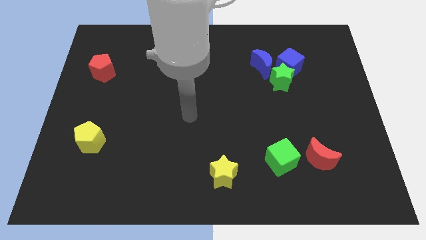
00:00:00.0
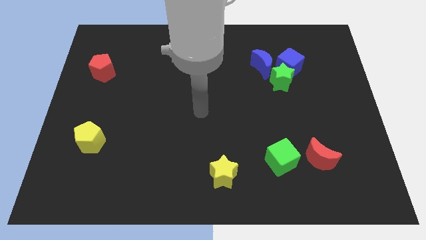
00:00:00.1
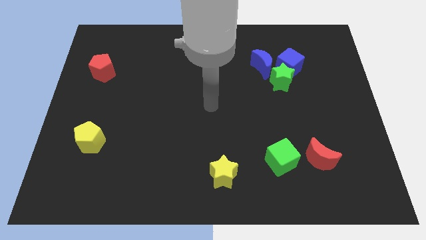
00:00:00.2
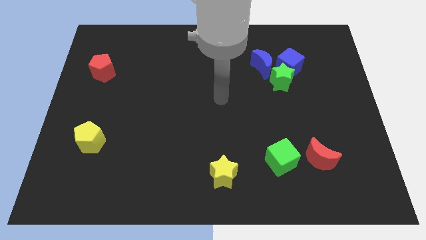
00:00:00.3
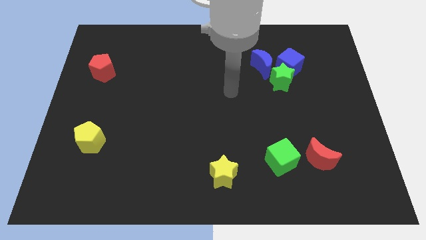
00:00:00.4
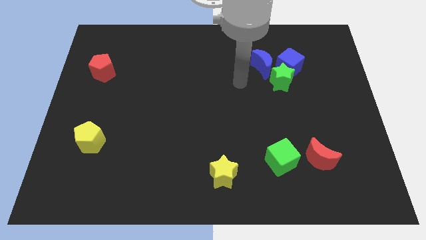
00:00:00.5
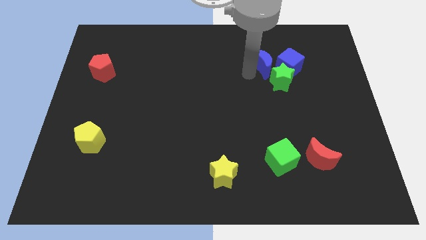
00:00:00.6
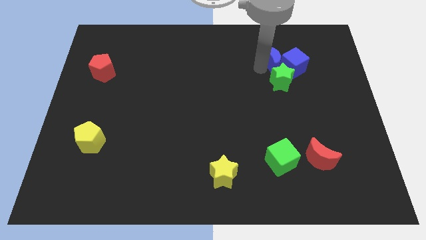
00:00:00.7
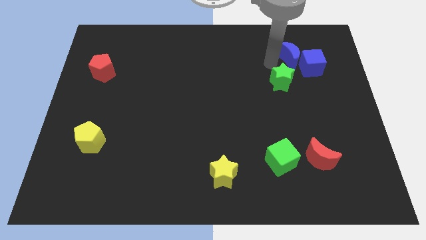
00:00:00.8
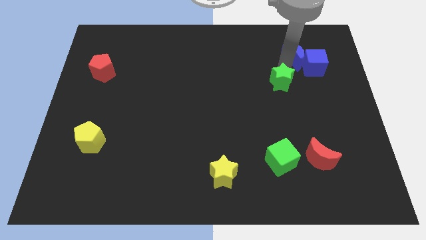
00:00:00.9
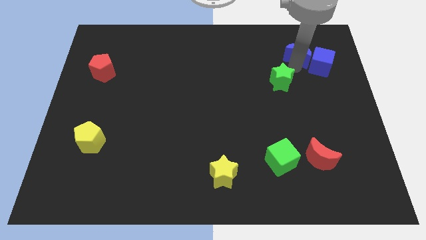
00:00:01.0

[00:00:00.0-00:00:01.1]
pull the green star apart from the blue cube and blue moon

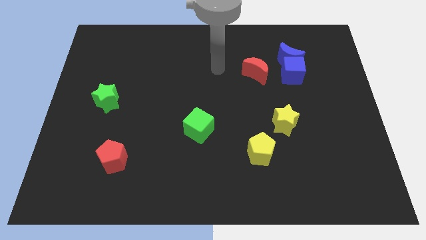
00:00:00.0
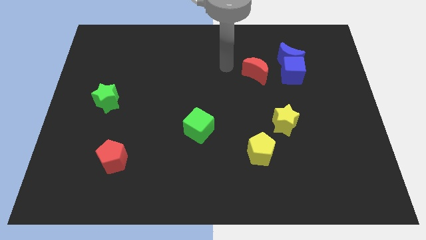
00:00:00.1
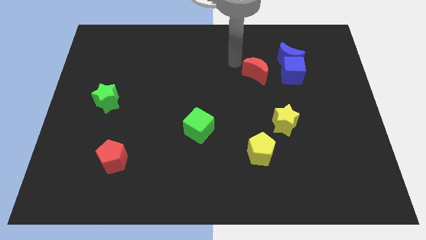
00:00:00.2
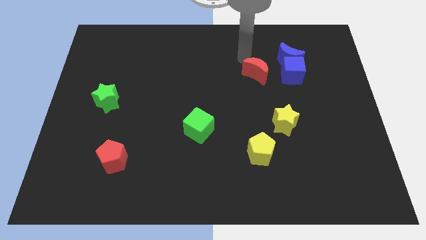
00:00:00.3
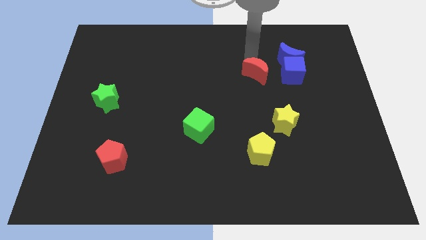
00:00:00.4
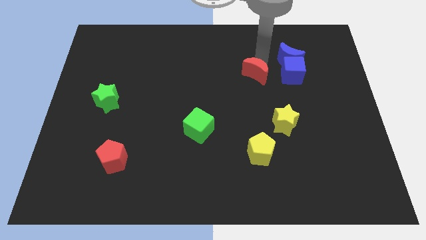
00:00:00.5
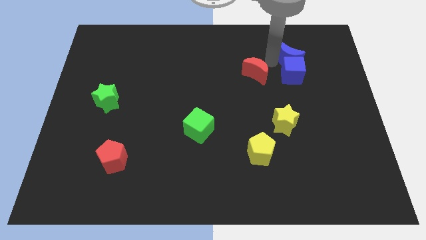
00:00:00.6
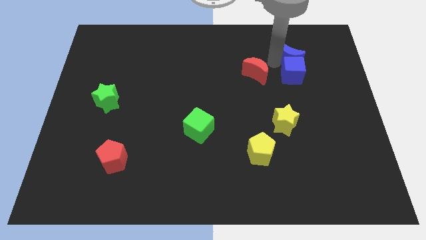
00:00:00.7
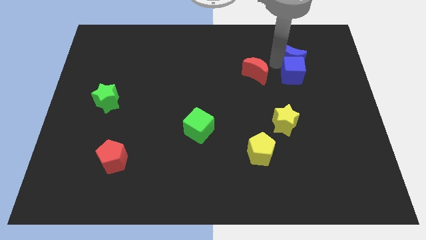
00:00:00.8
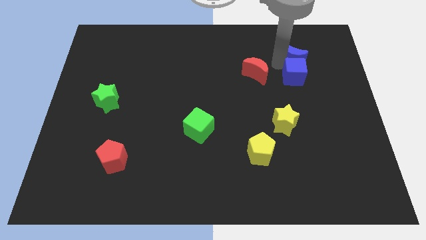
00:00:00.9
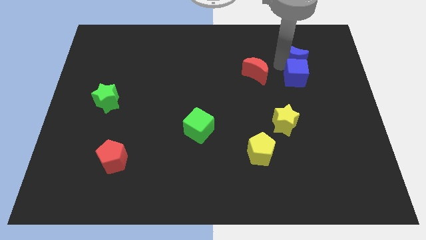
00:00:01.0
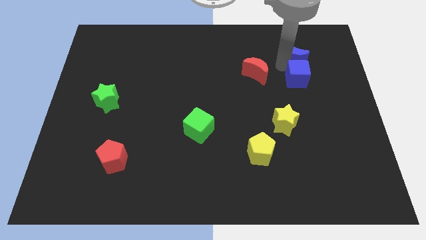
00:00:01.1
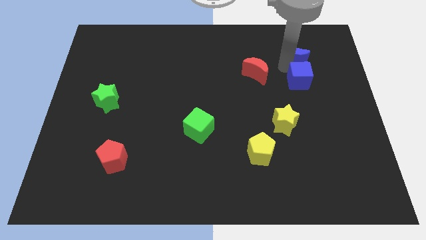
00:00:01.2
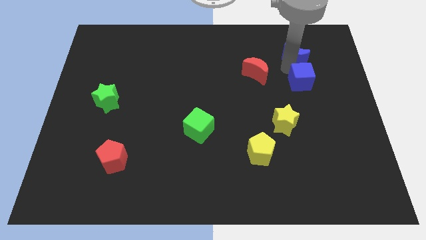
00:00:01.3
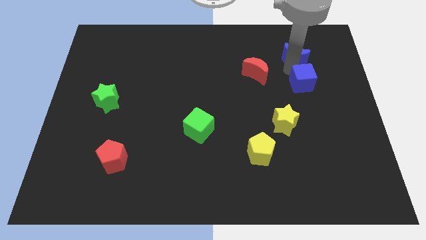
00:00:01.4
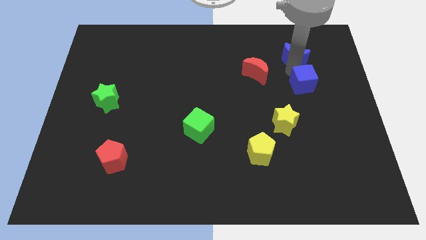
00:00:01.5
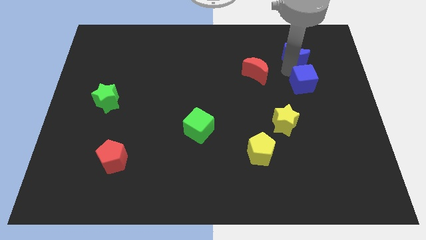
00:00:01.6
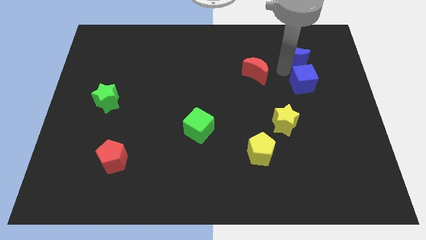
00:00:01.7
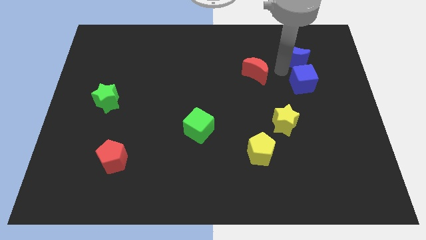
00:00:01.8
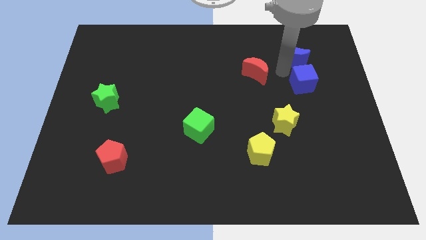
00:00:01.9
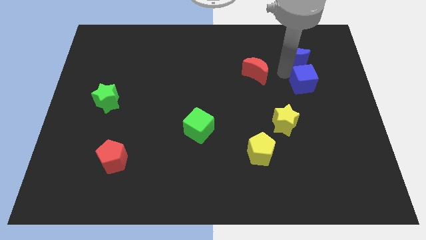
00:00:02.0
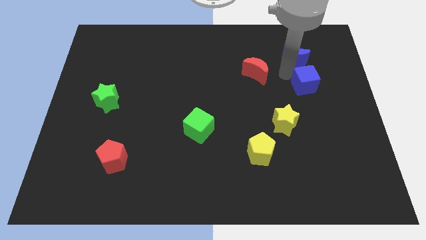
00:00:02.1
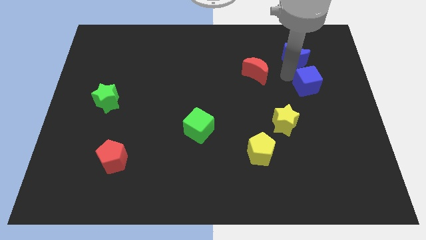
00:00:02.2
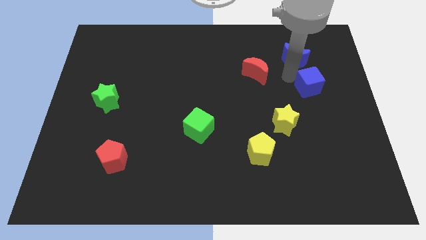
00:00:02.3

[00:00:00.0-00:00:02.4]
pull the blue cube apart from the blue moon and red moon

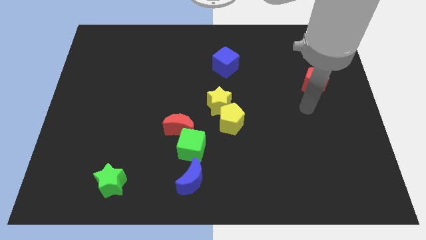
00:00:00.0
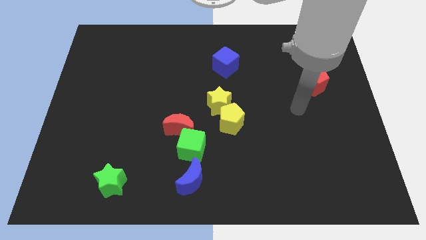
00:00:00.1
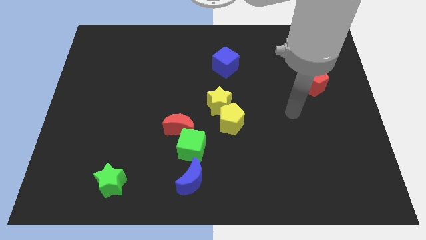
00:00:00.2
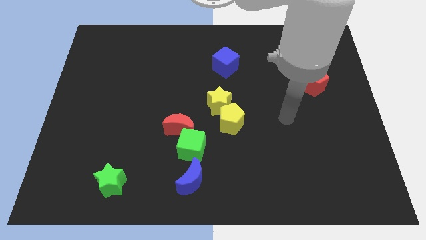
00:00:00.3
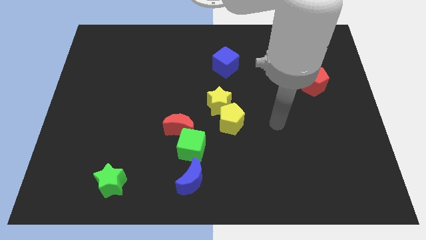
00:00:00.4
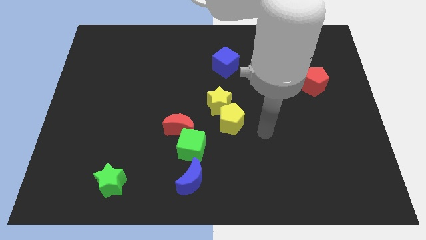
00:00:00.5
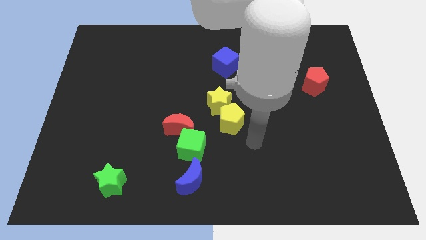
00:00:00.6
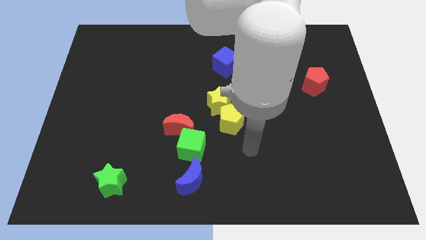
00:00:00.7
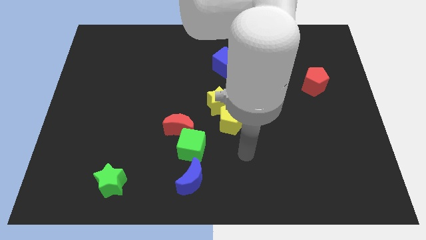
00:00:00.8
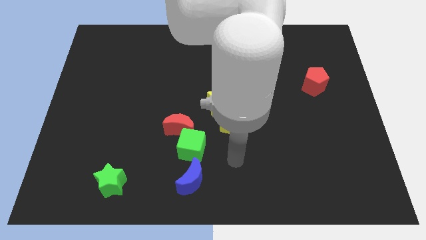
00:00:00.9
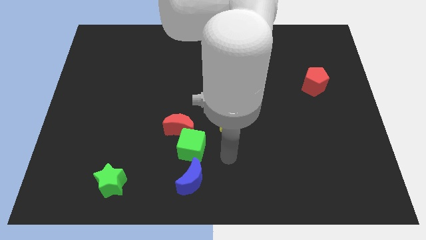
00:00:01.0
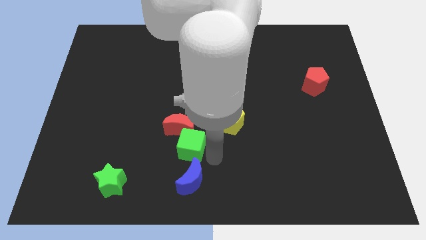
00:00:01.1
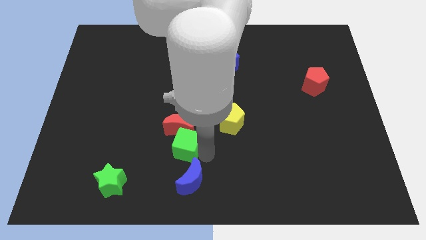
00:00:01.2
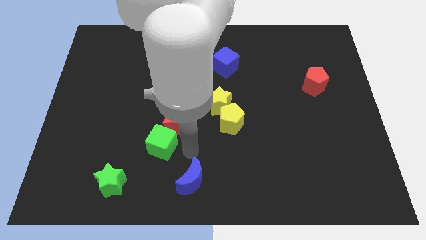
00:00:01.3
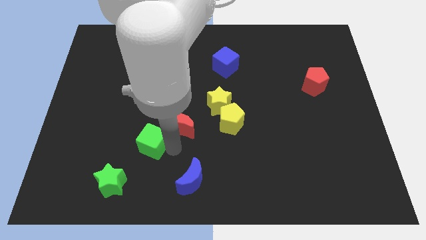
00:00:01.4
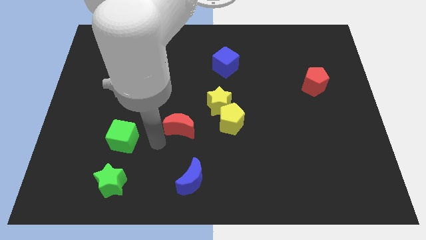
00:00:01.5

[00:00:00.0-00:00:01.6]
separate the red moon from the green cube

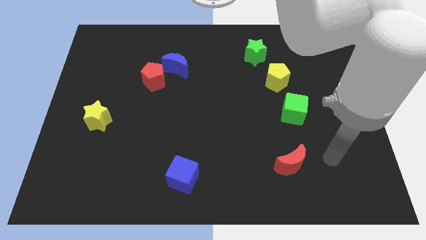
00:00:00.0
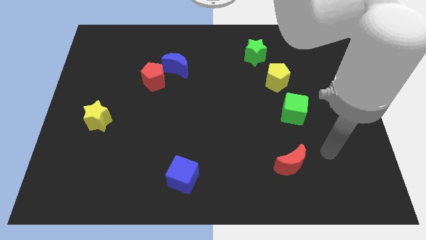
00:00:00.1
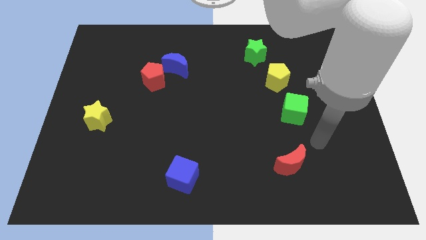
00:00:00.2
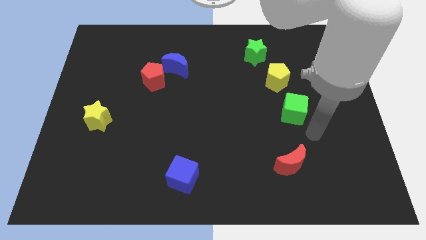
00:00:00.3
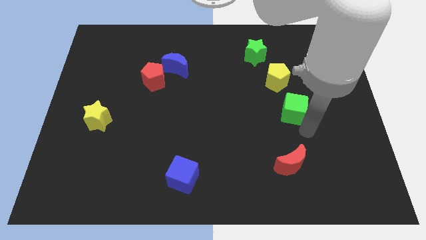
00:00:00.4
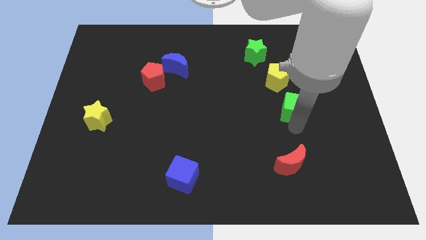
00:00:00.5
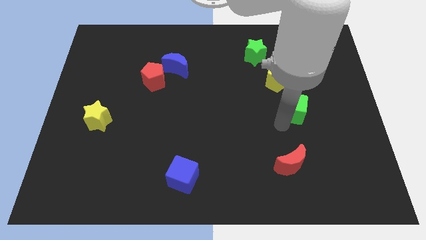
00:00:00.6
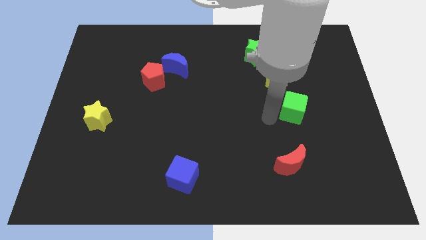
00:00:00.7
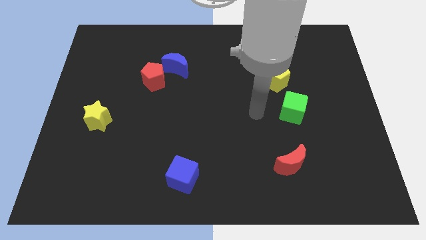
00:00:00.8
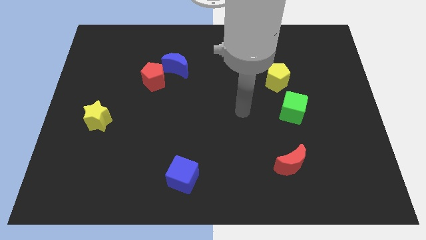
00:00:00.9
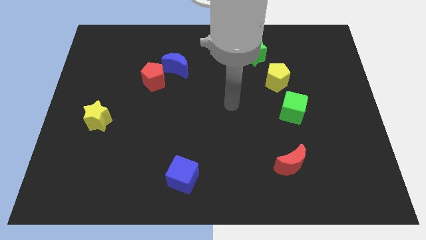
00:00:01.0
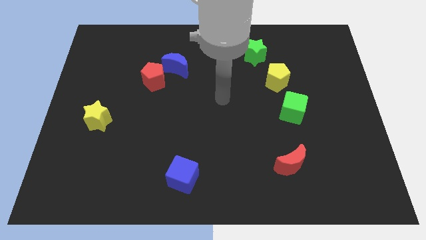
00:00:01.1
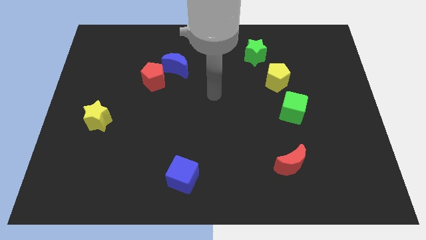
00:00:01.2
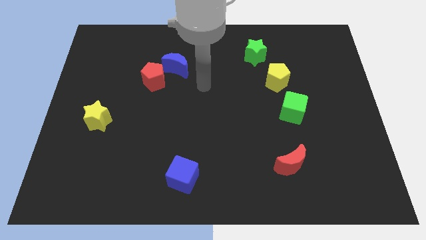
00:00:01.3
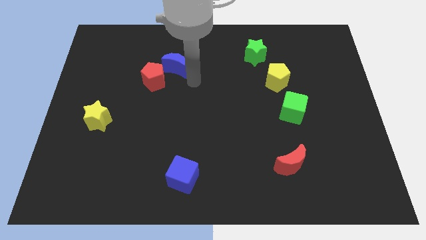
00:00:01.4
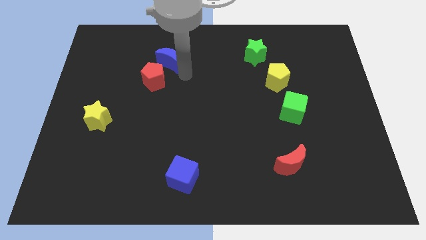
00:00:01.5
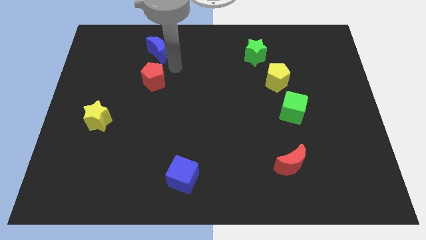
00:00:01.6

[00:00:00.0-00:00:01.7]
move the red pentagon away from the blue moon

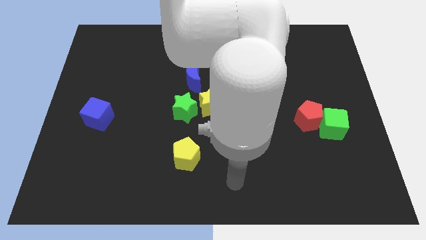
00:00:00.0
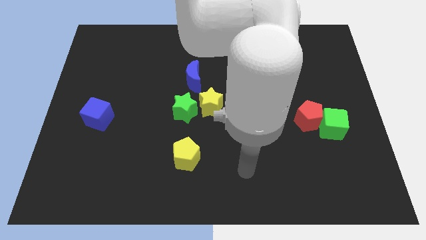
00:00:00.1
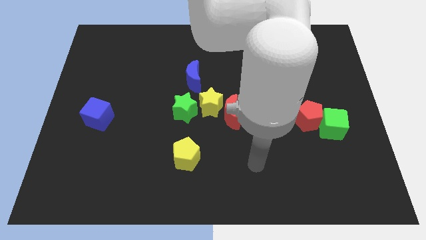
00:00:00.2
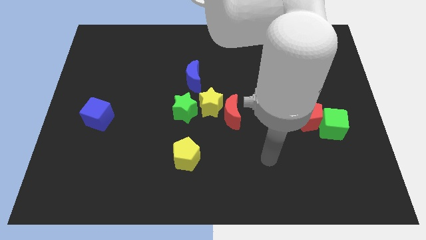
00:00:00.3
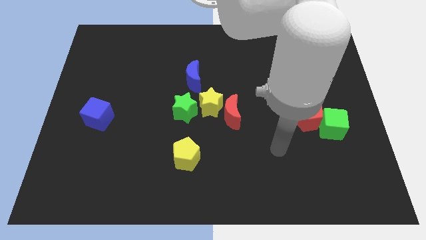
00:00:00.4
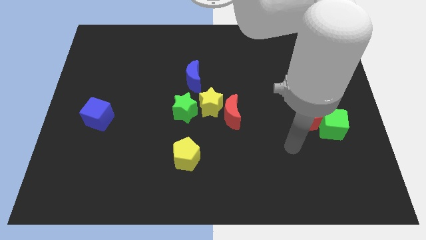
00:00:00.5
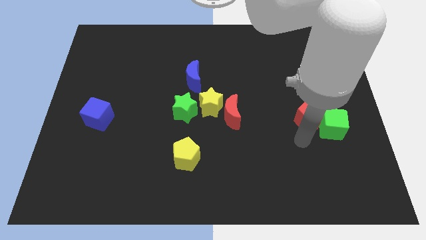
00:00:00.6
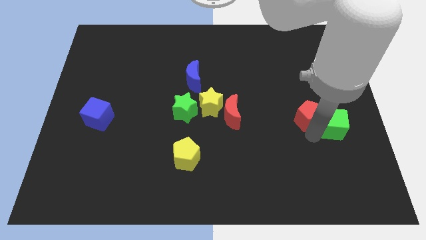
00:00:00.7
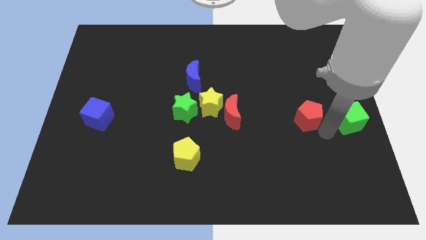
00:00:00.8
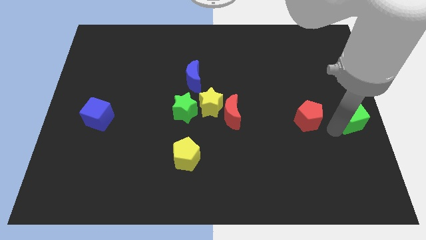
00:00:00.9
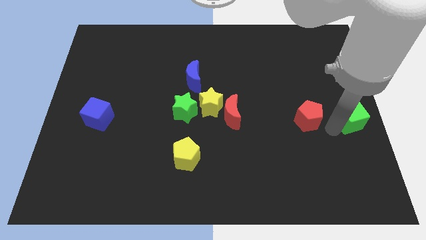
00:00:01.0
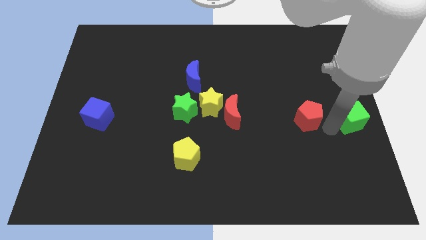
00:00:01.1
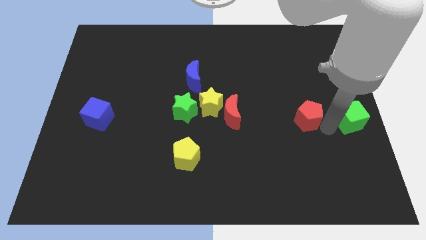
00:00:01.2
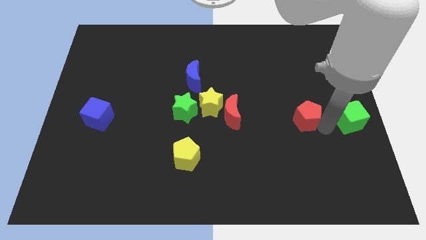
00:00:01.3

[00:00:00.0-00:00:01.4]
separate the red pentagon from the green cube

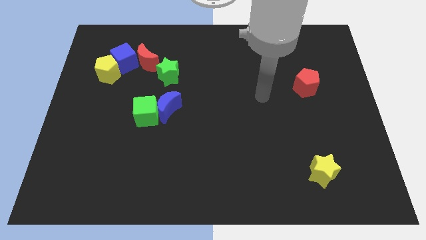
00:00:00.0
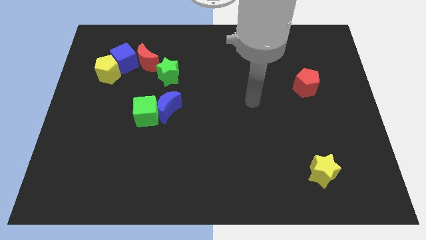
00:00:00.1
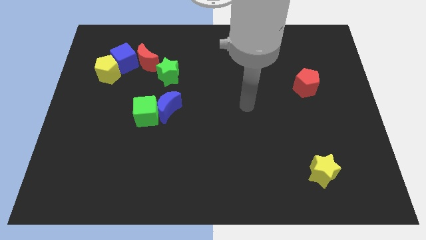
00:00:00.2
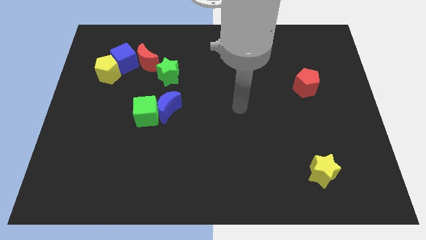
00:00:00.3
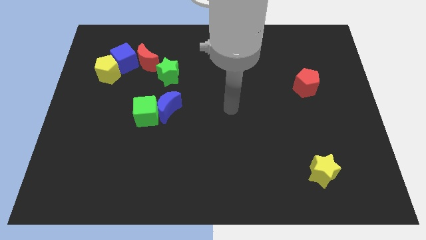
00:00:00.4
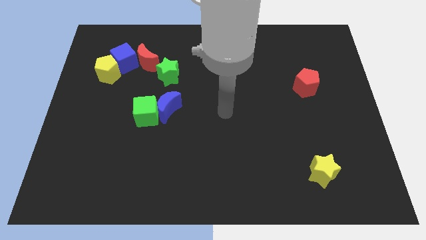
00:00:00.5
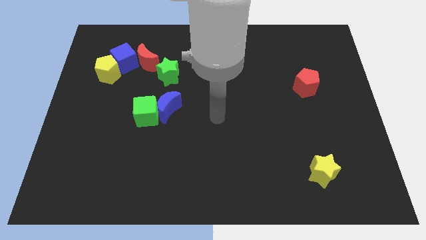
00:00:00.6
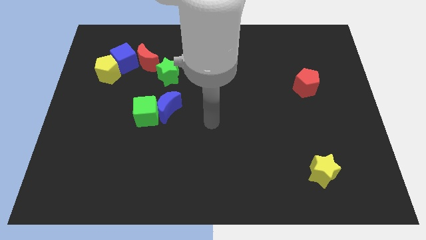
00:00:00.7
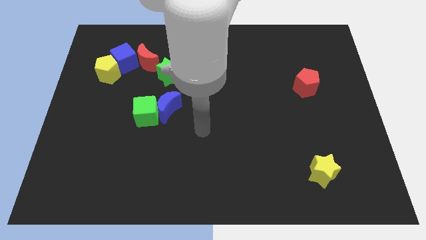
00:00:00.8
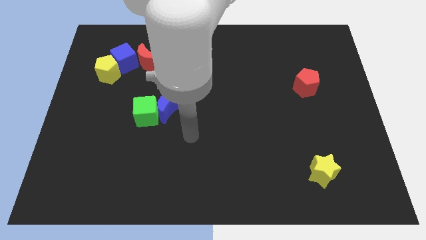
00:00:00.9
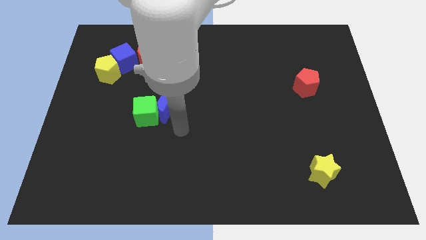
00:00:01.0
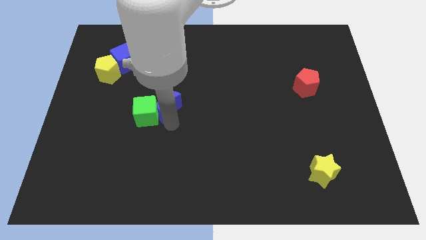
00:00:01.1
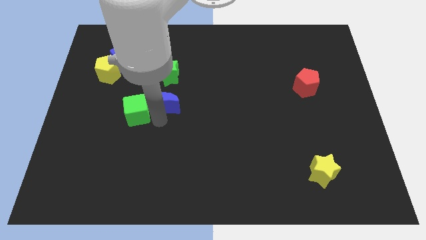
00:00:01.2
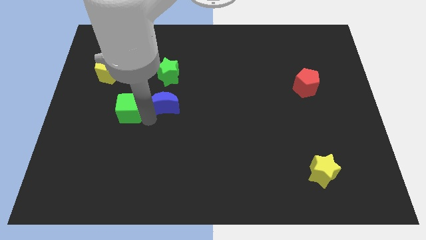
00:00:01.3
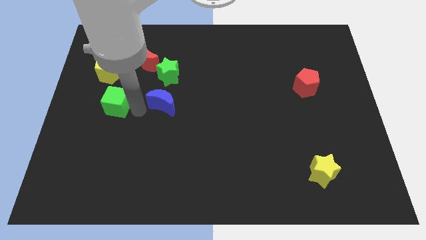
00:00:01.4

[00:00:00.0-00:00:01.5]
move the blue moon away from the green cube
